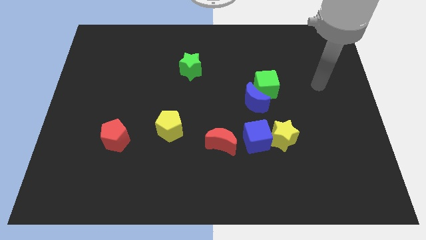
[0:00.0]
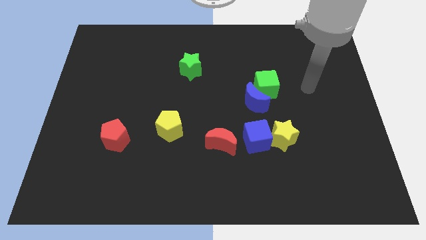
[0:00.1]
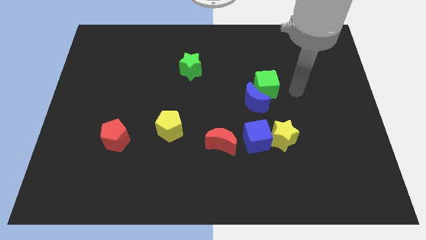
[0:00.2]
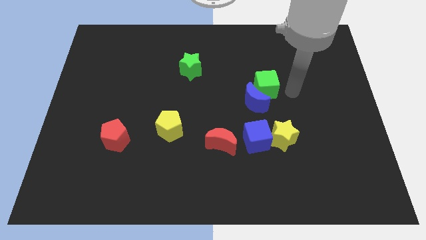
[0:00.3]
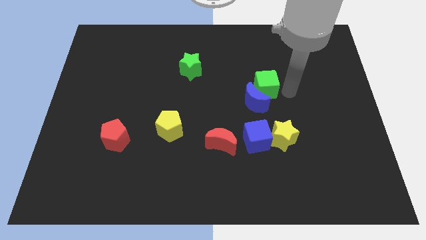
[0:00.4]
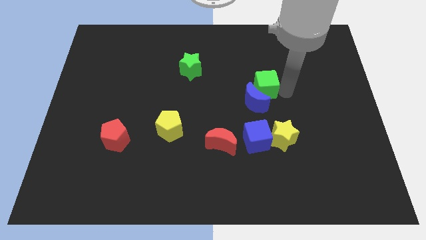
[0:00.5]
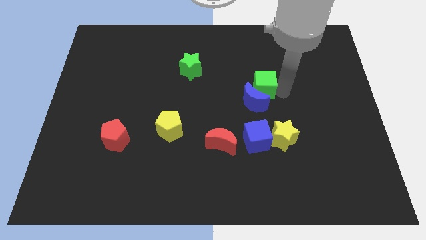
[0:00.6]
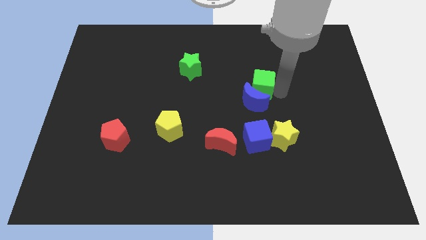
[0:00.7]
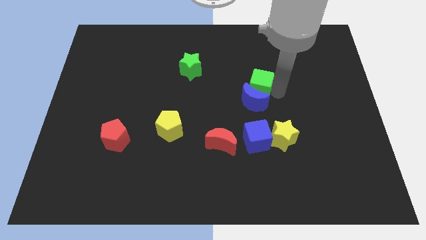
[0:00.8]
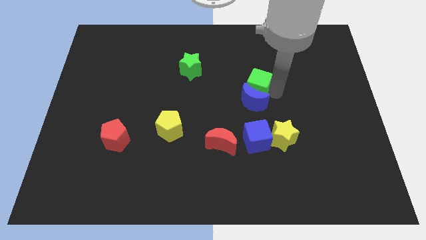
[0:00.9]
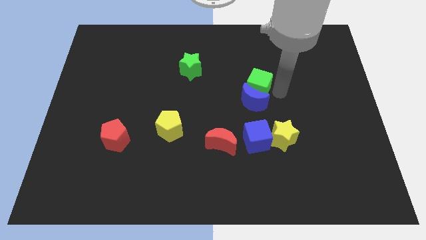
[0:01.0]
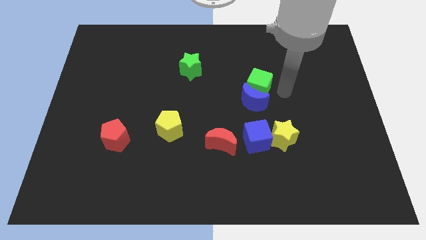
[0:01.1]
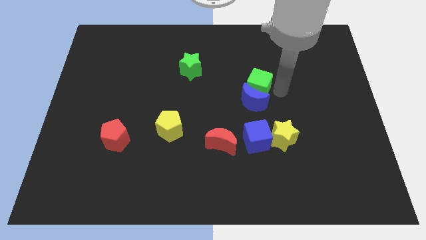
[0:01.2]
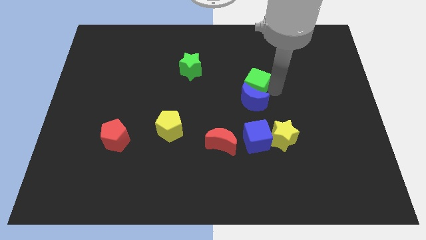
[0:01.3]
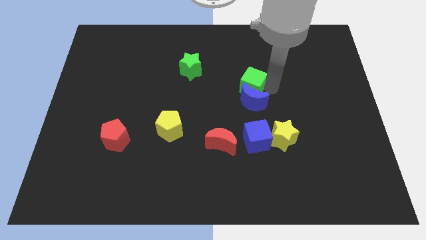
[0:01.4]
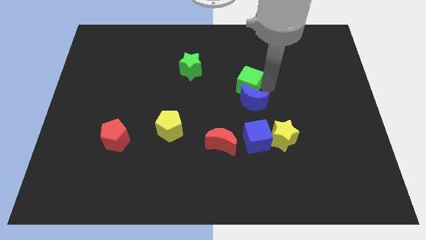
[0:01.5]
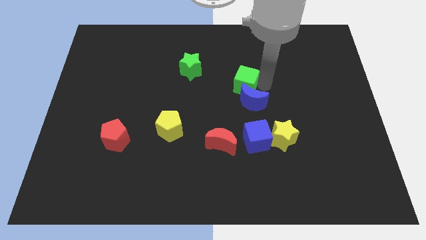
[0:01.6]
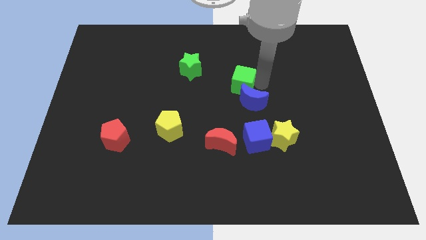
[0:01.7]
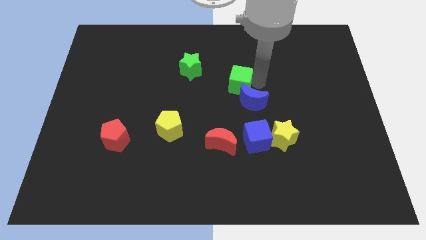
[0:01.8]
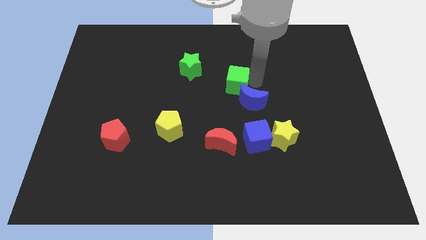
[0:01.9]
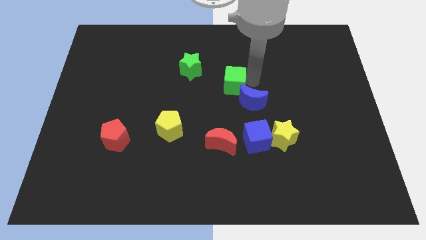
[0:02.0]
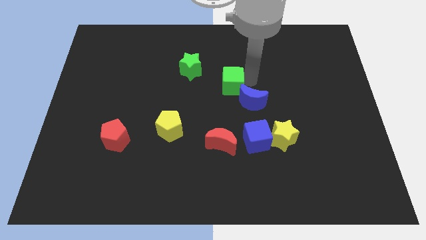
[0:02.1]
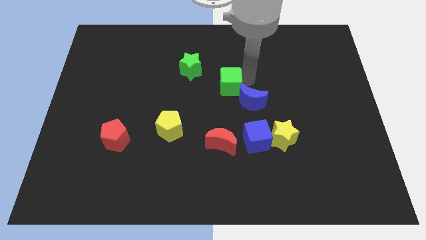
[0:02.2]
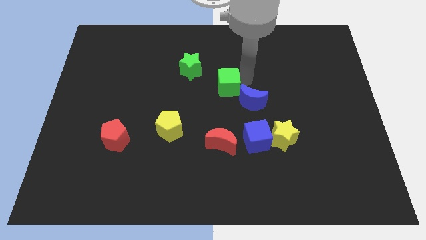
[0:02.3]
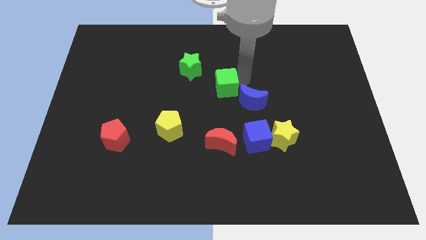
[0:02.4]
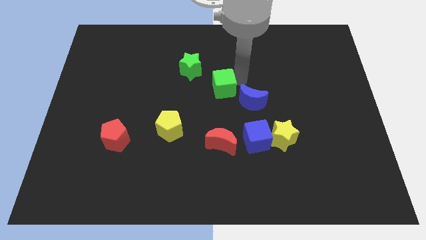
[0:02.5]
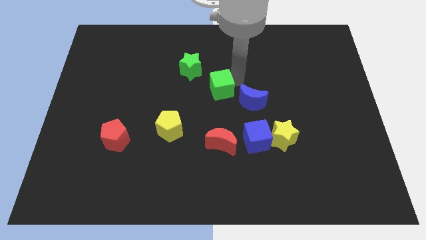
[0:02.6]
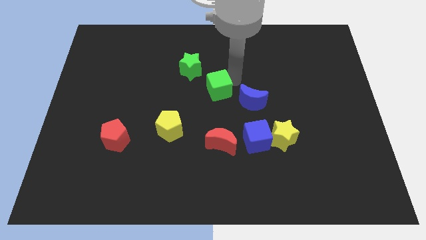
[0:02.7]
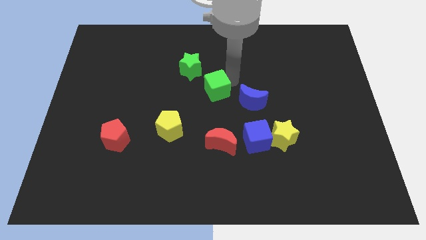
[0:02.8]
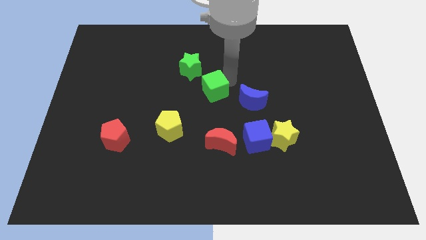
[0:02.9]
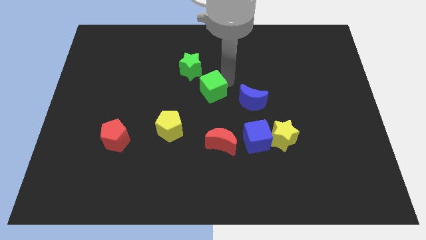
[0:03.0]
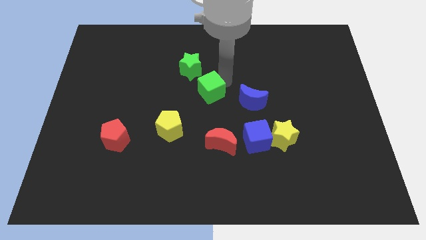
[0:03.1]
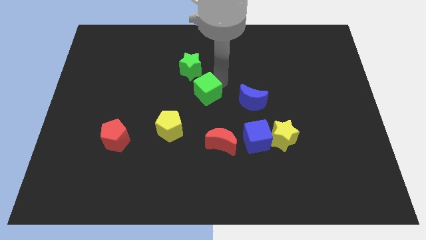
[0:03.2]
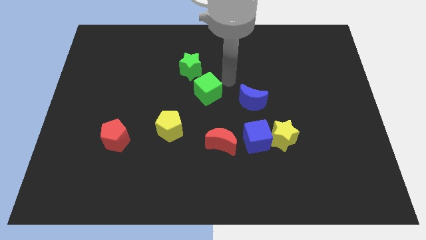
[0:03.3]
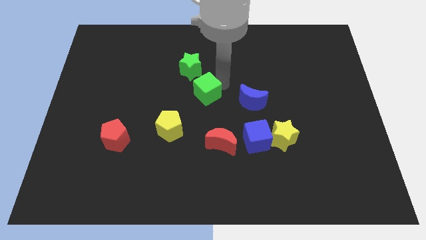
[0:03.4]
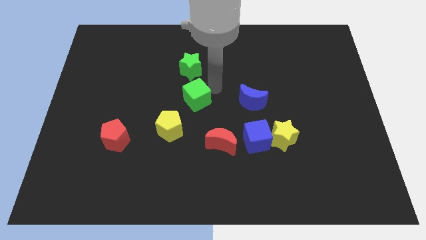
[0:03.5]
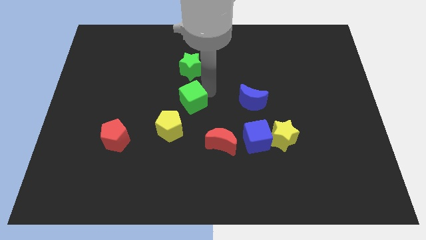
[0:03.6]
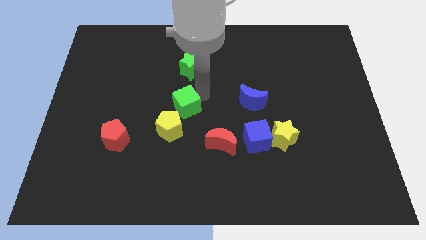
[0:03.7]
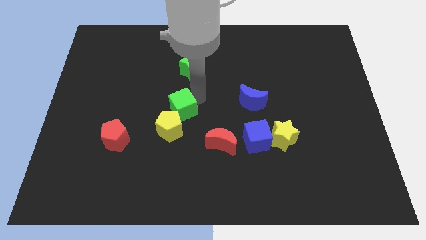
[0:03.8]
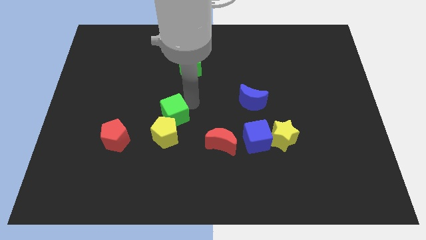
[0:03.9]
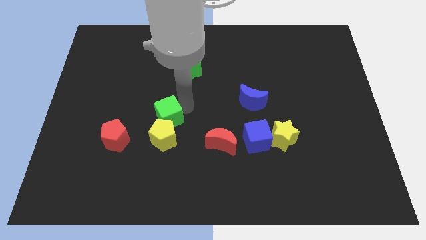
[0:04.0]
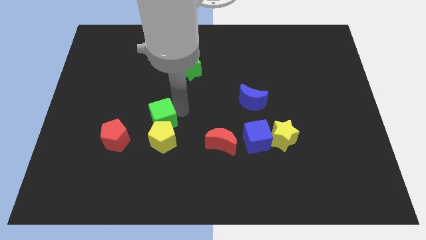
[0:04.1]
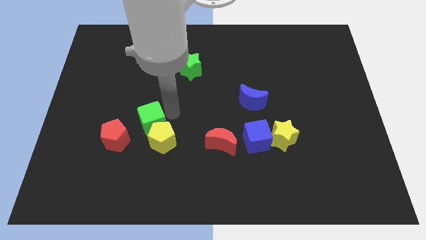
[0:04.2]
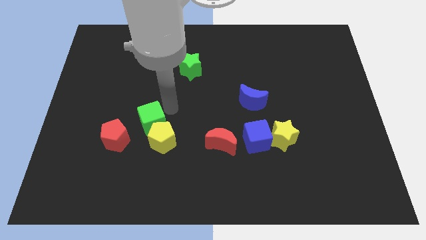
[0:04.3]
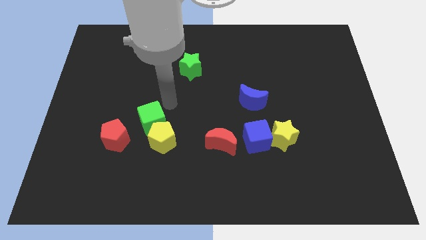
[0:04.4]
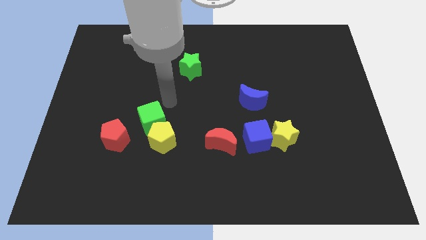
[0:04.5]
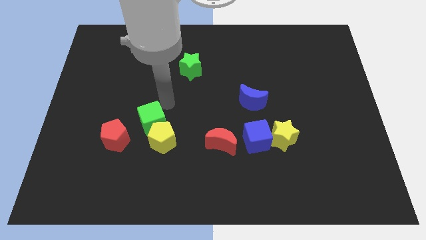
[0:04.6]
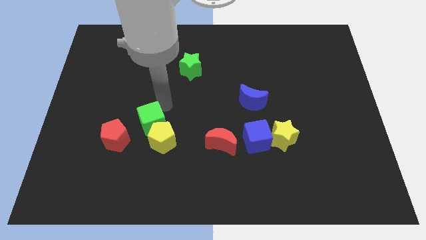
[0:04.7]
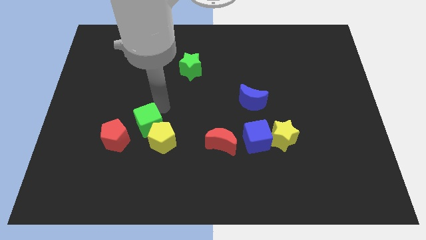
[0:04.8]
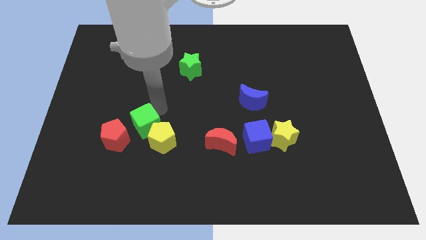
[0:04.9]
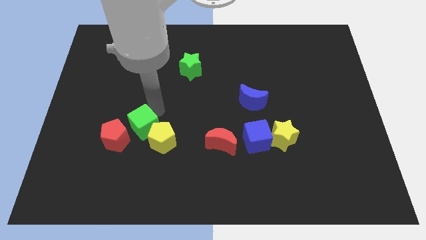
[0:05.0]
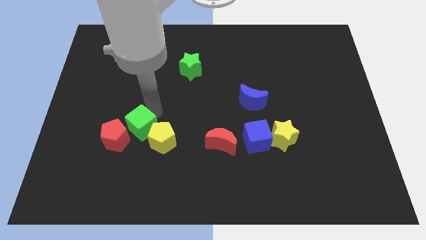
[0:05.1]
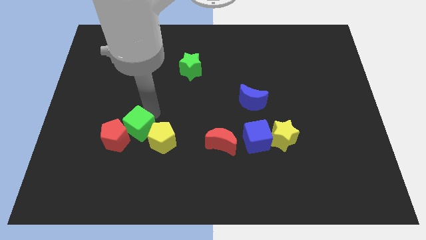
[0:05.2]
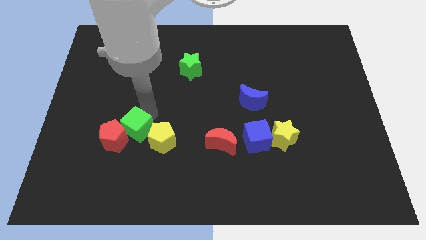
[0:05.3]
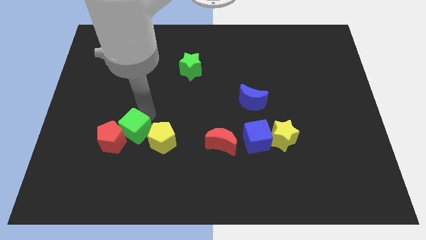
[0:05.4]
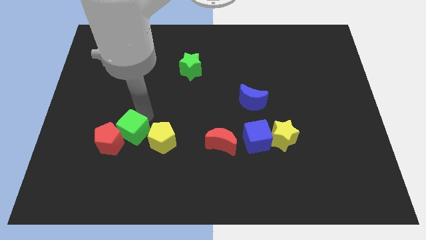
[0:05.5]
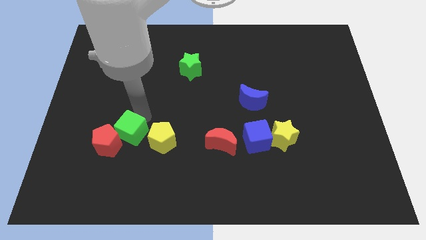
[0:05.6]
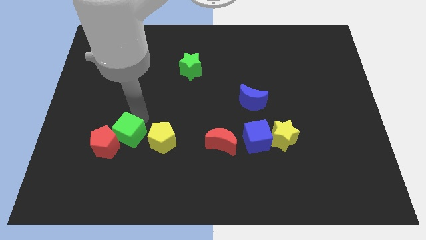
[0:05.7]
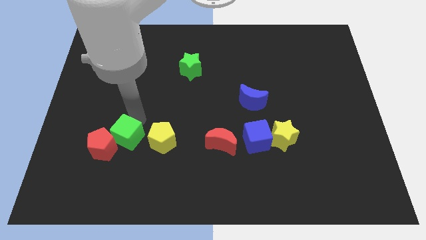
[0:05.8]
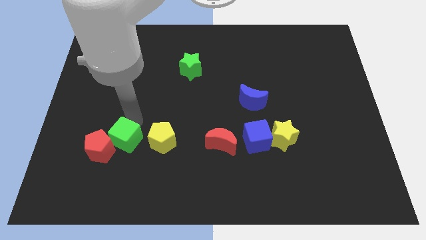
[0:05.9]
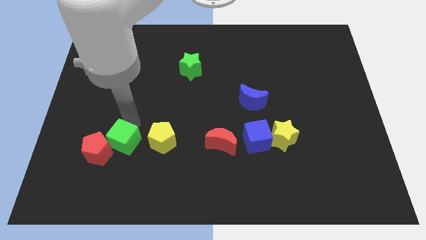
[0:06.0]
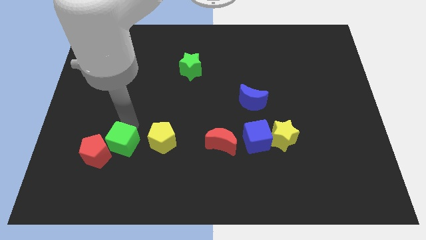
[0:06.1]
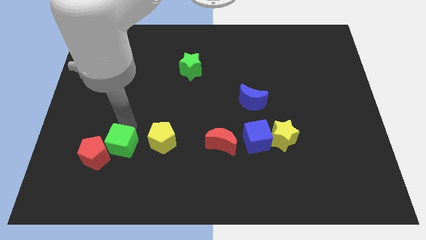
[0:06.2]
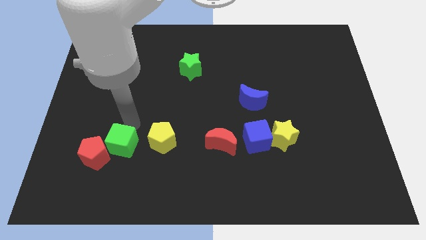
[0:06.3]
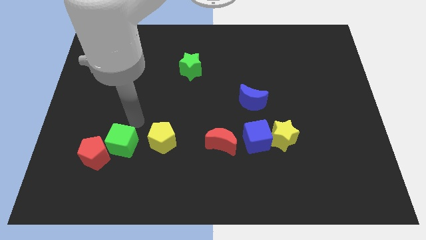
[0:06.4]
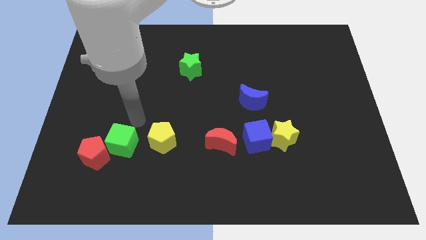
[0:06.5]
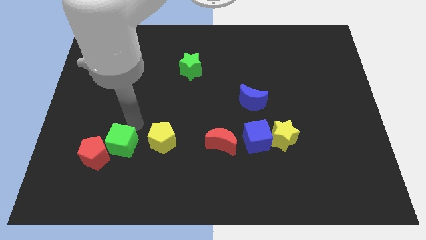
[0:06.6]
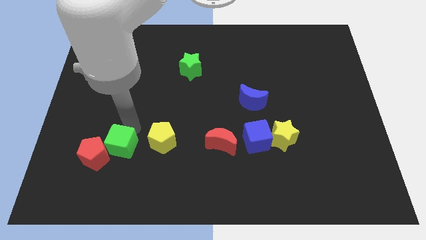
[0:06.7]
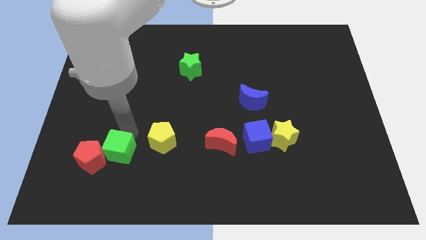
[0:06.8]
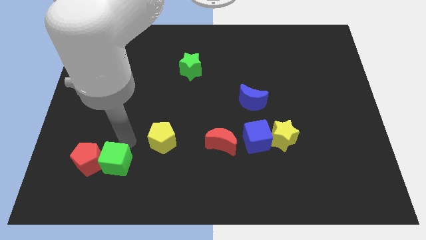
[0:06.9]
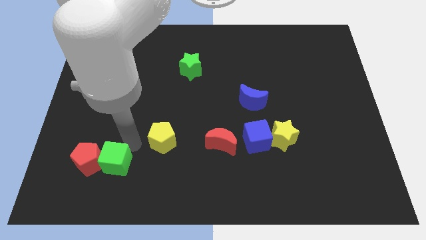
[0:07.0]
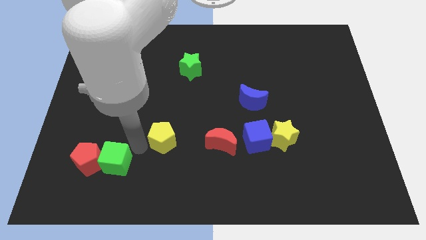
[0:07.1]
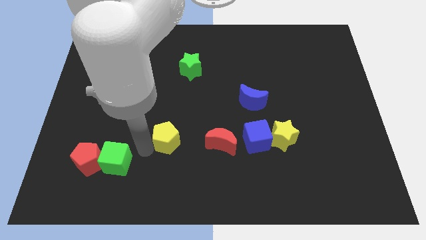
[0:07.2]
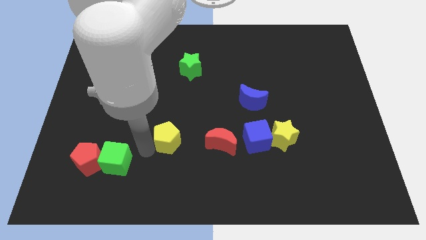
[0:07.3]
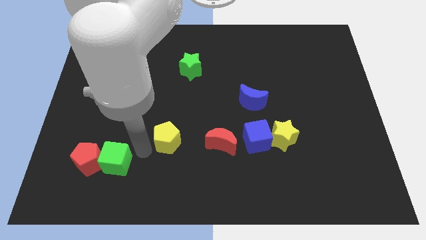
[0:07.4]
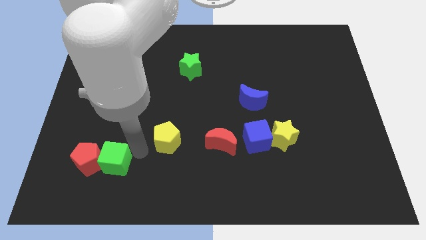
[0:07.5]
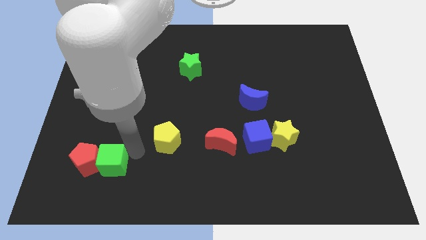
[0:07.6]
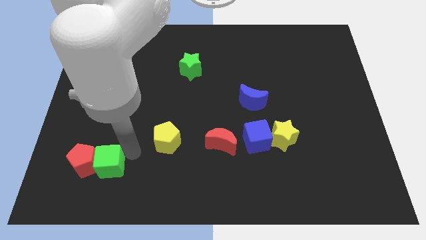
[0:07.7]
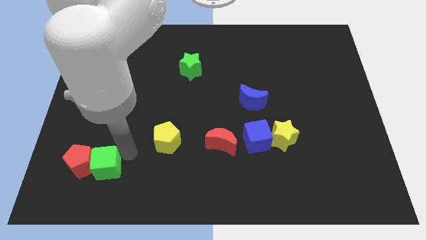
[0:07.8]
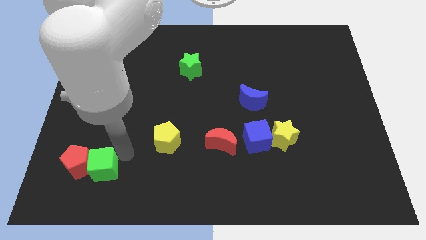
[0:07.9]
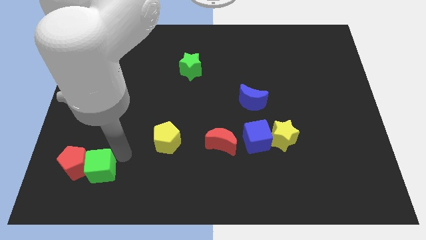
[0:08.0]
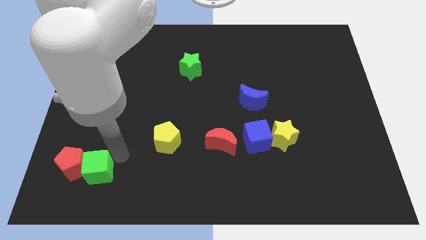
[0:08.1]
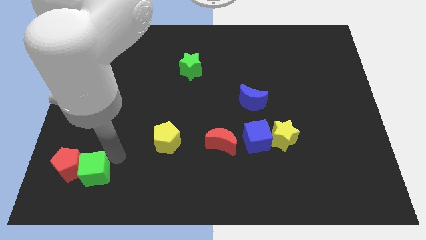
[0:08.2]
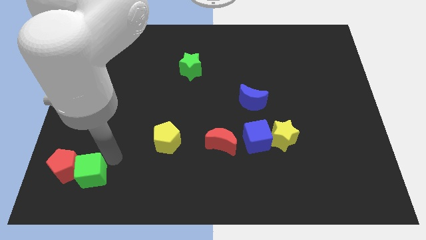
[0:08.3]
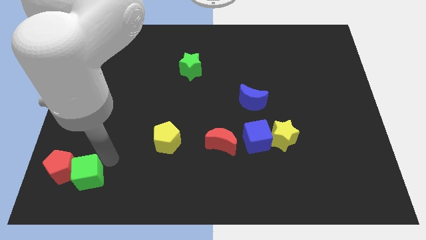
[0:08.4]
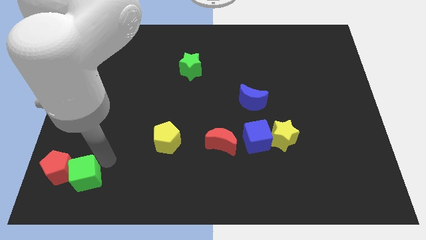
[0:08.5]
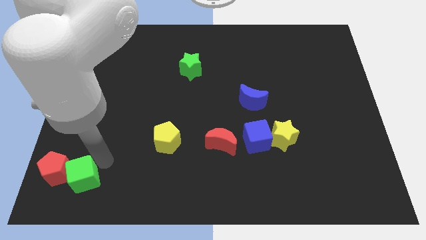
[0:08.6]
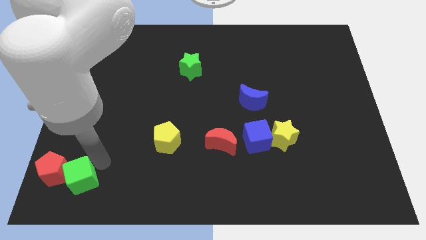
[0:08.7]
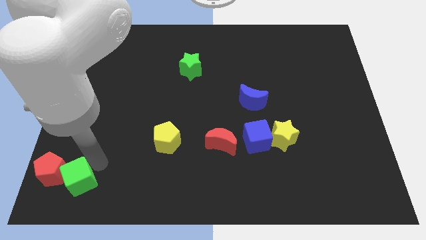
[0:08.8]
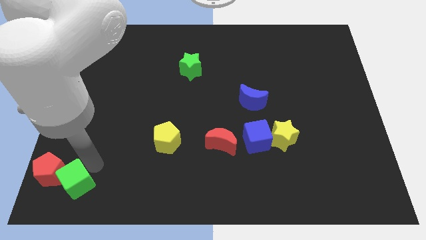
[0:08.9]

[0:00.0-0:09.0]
move the green cube to the lower left corner
